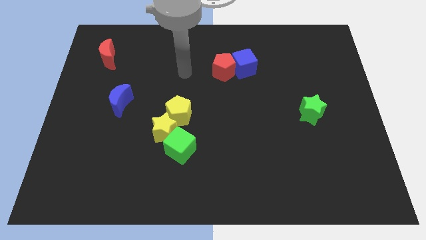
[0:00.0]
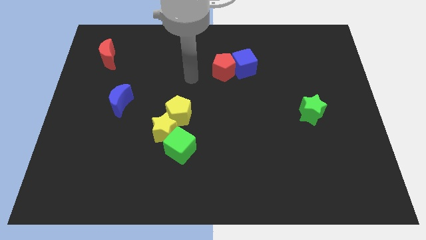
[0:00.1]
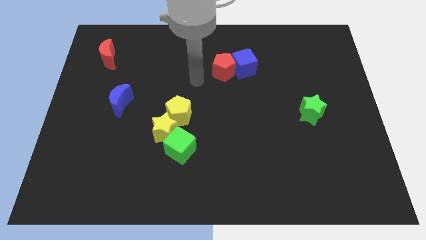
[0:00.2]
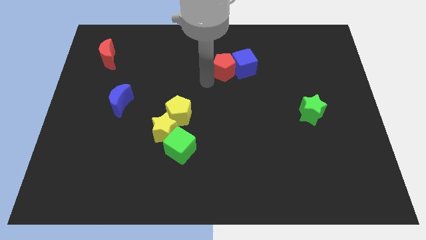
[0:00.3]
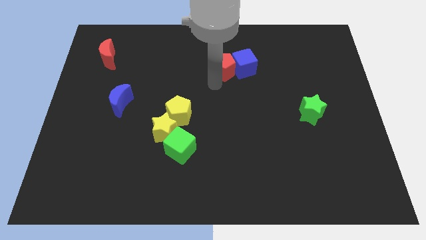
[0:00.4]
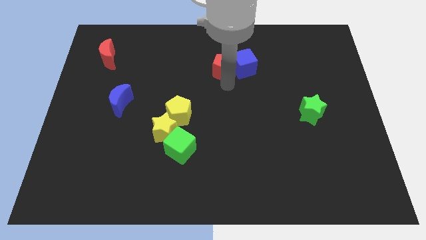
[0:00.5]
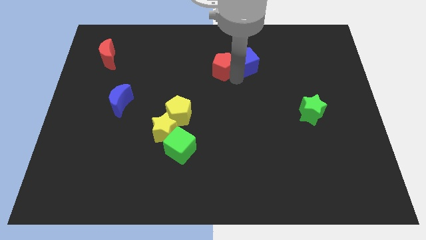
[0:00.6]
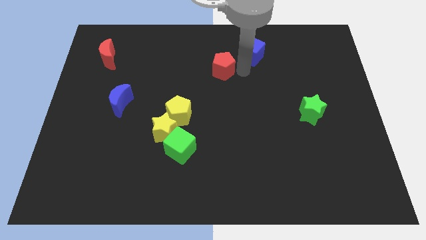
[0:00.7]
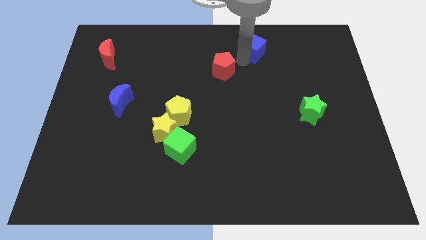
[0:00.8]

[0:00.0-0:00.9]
pull the red pentagon apart from the blue cube

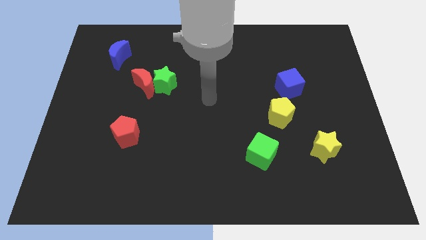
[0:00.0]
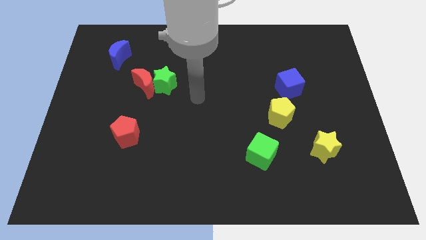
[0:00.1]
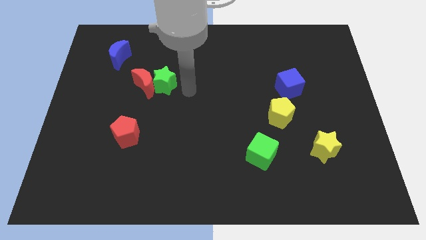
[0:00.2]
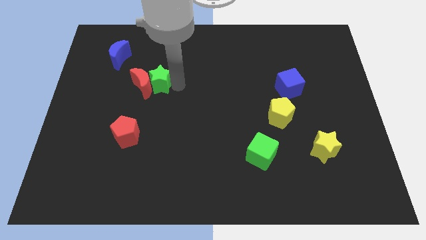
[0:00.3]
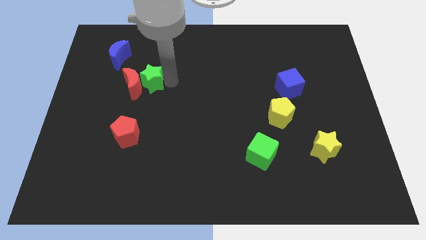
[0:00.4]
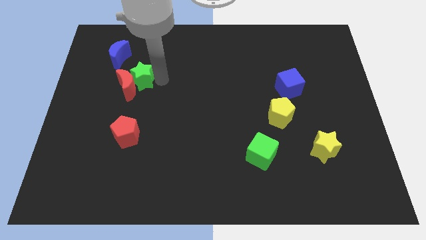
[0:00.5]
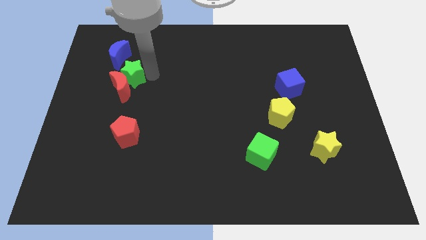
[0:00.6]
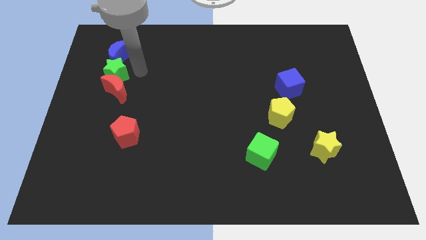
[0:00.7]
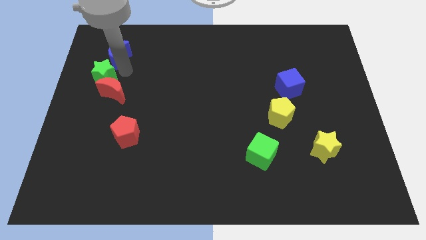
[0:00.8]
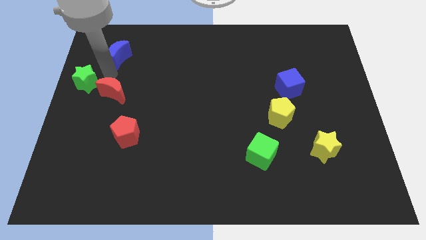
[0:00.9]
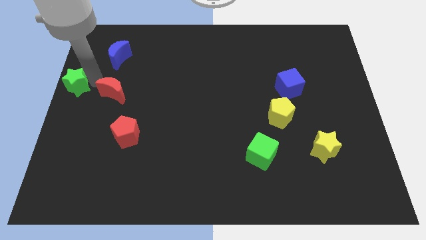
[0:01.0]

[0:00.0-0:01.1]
separate the red moon from the green star

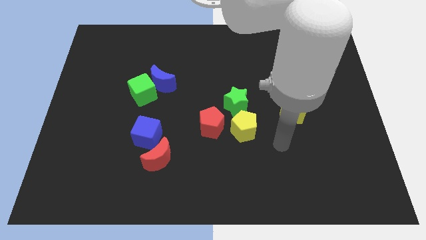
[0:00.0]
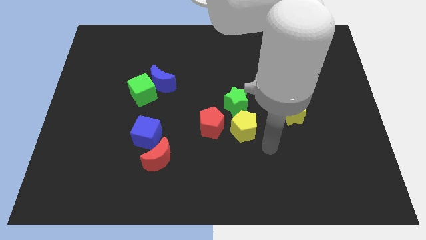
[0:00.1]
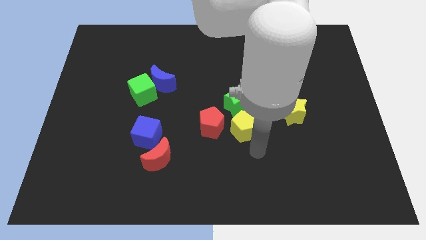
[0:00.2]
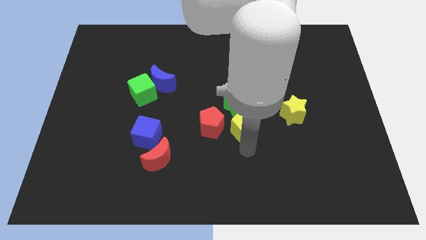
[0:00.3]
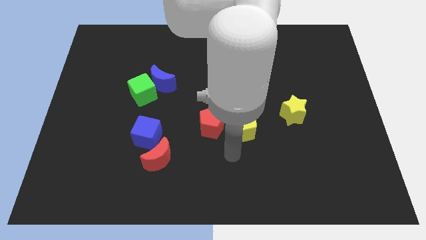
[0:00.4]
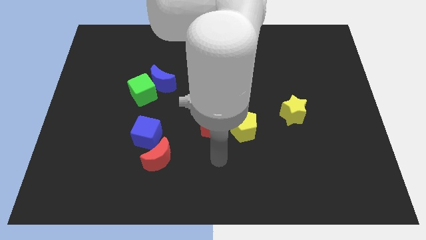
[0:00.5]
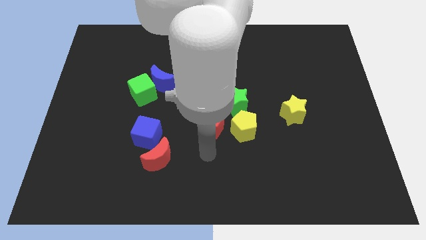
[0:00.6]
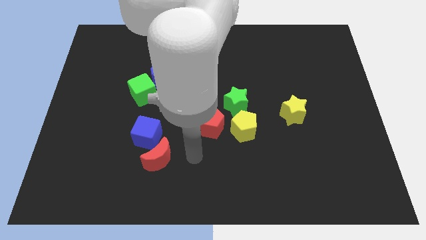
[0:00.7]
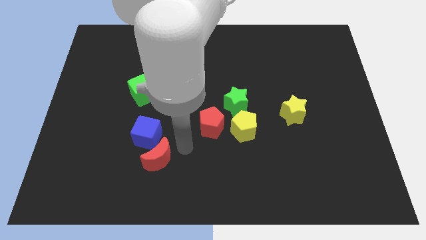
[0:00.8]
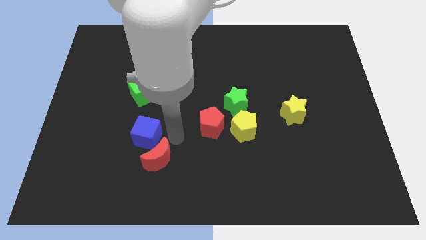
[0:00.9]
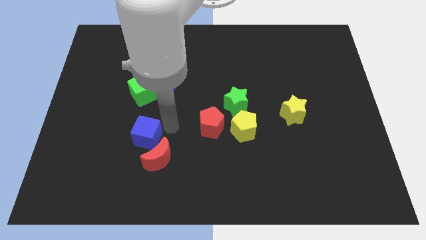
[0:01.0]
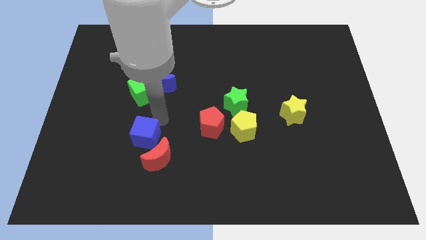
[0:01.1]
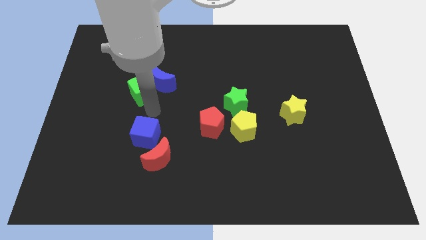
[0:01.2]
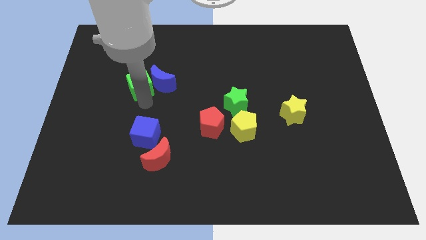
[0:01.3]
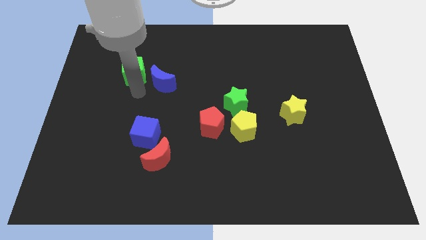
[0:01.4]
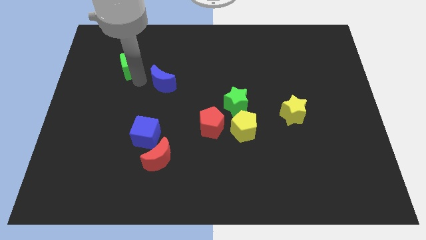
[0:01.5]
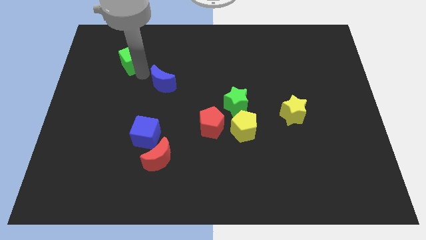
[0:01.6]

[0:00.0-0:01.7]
separate the blue moon from the green cube

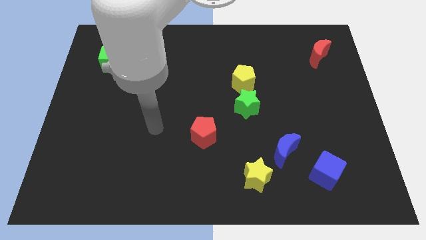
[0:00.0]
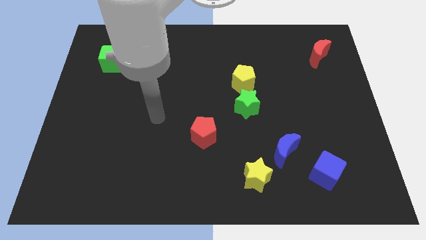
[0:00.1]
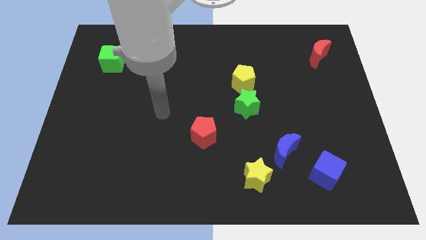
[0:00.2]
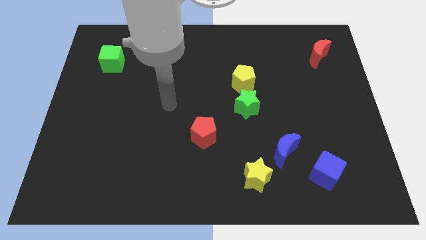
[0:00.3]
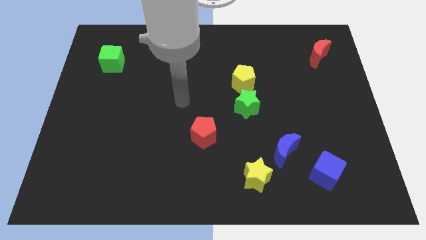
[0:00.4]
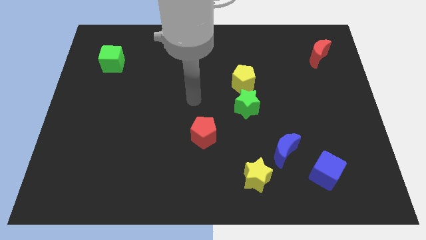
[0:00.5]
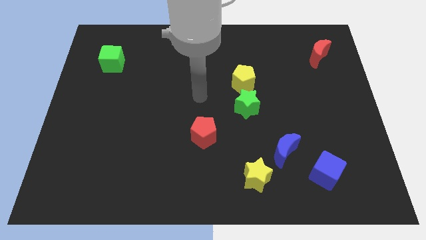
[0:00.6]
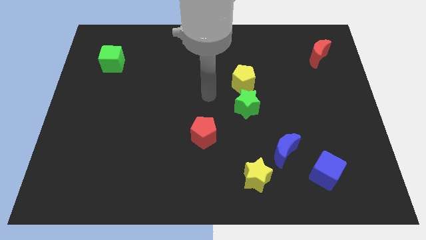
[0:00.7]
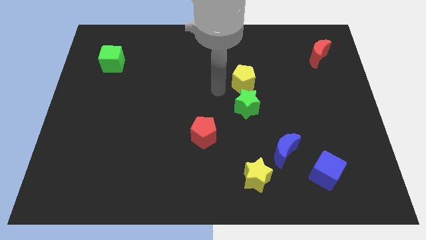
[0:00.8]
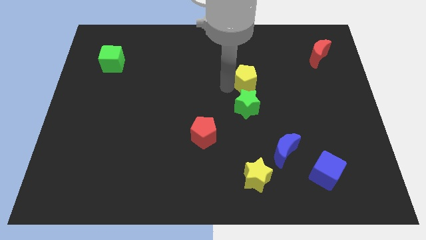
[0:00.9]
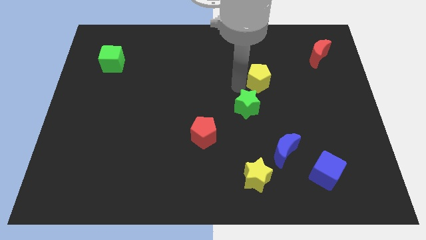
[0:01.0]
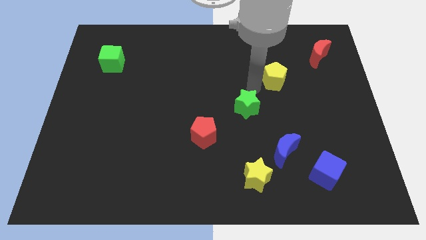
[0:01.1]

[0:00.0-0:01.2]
move the green star away from the yellow pentagon

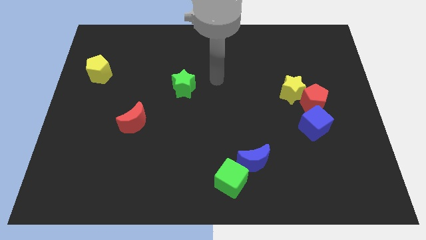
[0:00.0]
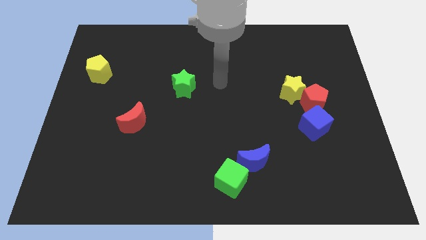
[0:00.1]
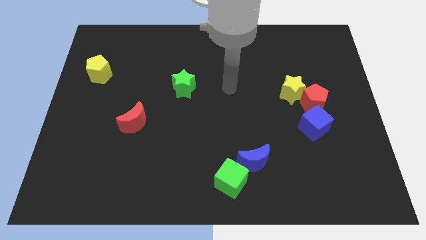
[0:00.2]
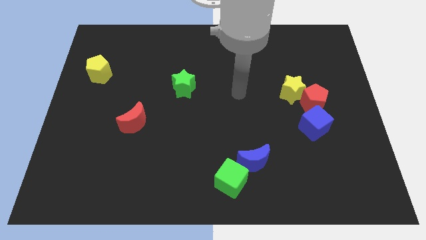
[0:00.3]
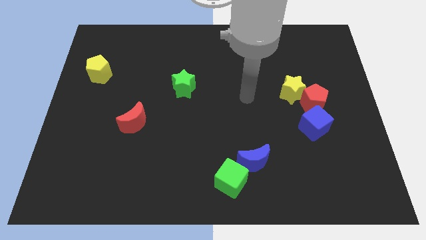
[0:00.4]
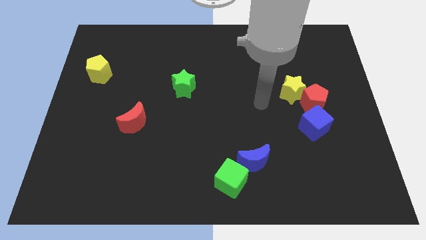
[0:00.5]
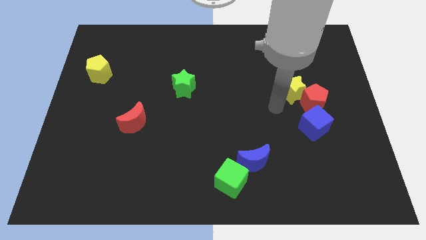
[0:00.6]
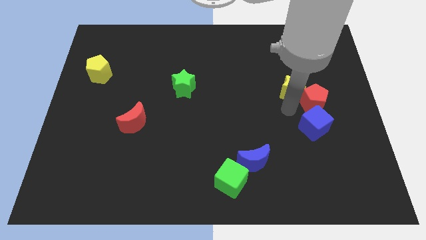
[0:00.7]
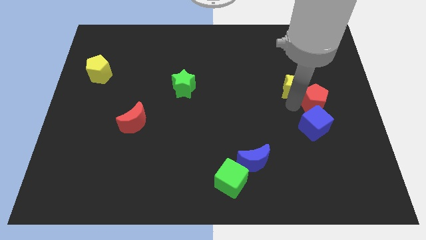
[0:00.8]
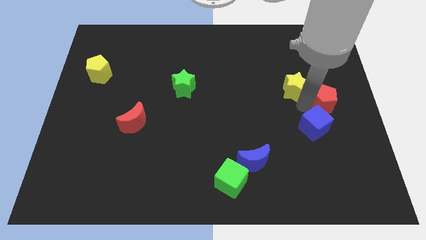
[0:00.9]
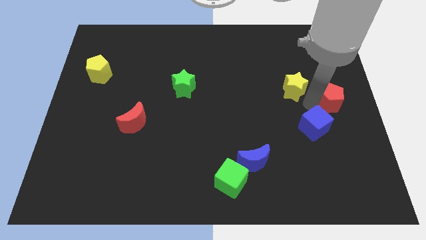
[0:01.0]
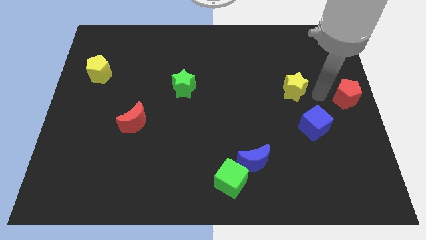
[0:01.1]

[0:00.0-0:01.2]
move the yellow star away from the red pentagon

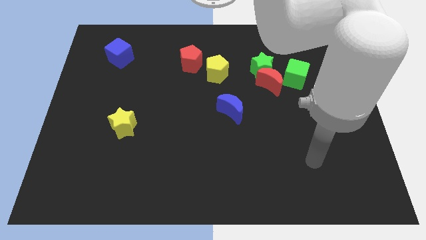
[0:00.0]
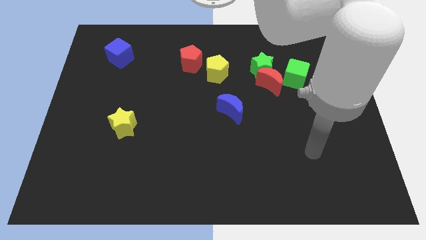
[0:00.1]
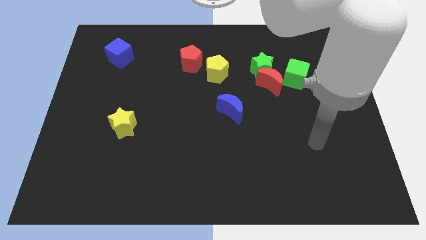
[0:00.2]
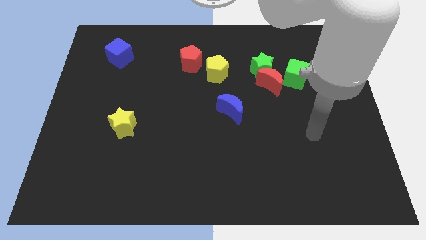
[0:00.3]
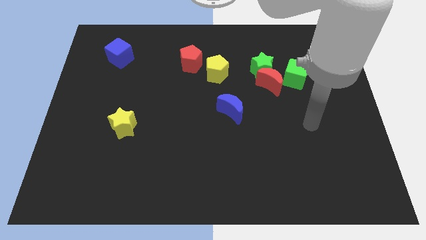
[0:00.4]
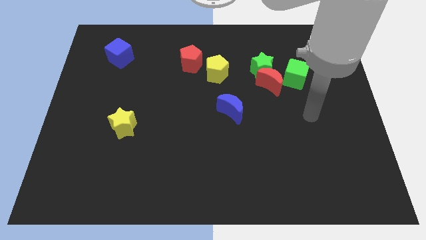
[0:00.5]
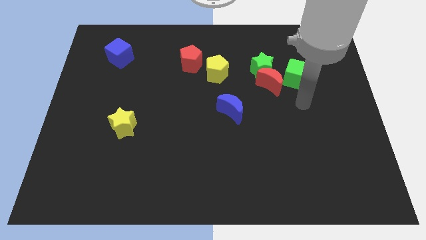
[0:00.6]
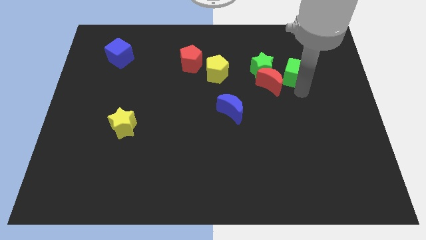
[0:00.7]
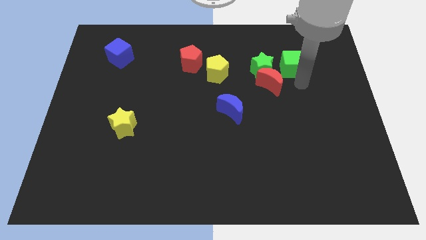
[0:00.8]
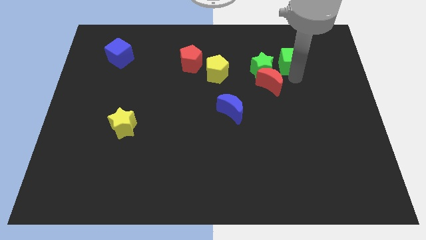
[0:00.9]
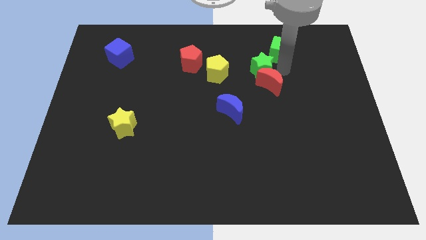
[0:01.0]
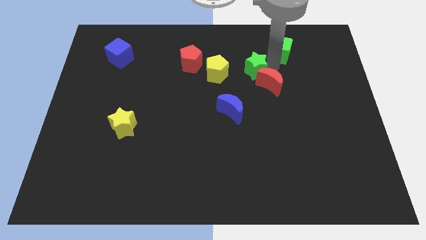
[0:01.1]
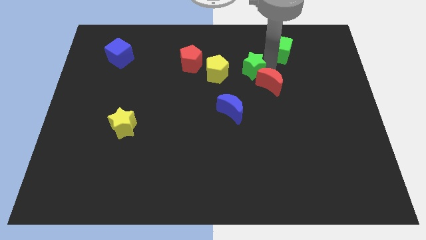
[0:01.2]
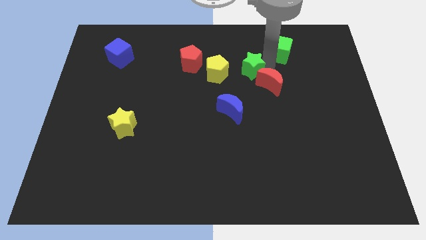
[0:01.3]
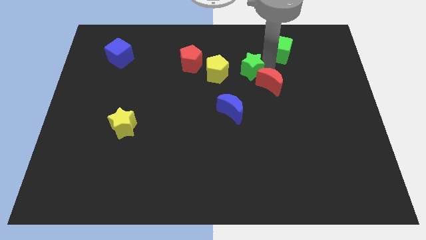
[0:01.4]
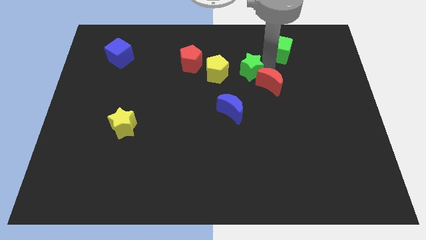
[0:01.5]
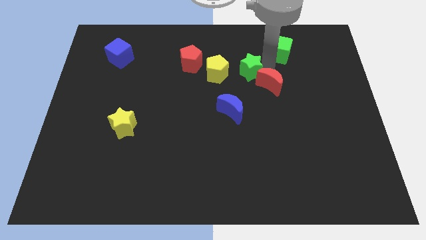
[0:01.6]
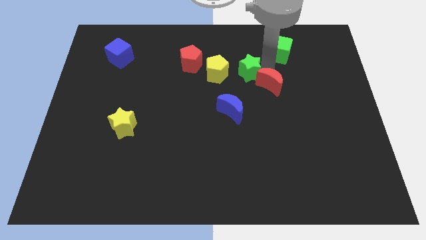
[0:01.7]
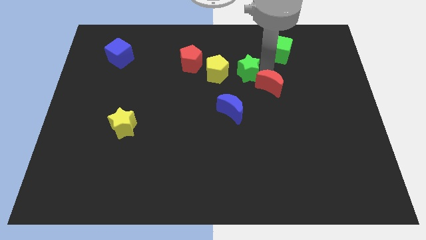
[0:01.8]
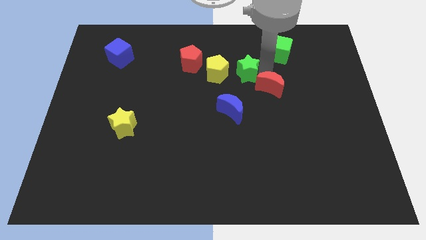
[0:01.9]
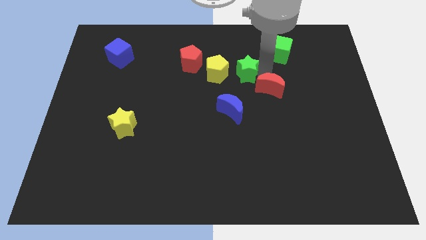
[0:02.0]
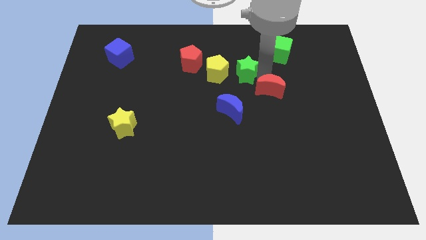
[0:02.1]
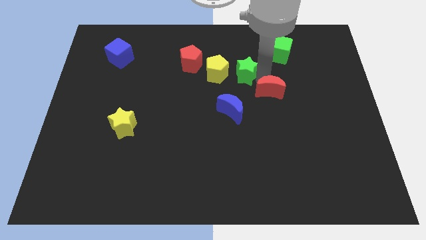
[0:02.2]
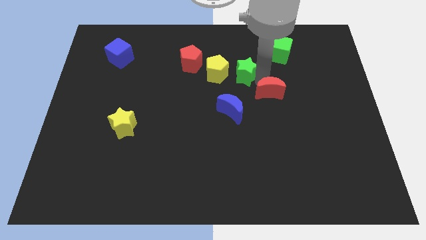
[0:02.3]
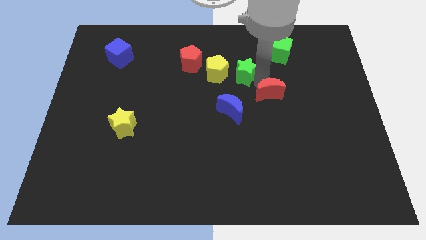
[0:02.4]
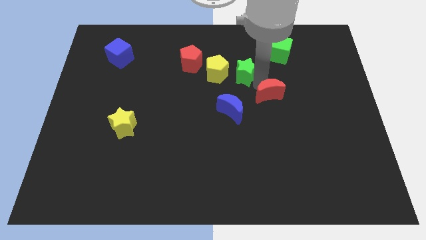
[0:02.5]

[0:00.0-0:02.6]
separate the red moon from the green star and green cube

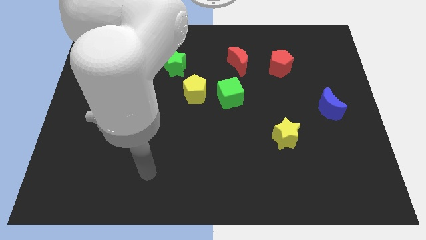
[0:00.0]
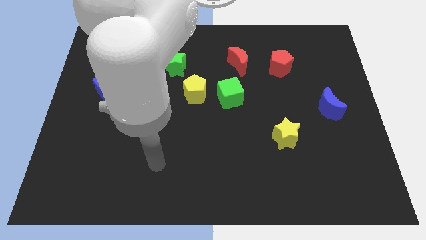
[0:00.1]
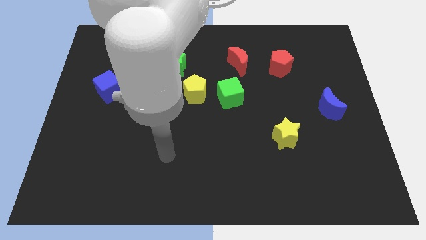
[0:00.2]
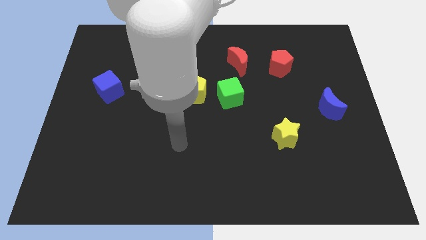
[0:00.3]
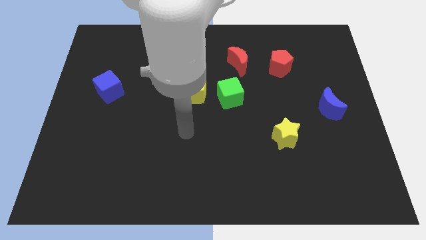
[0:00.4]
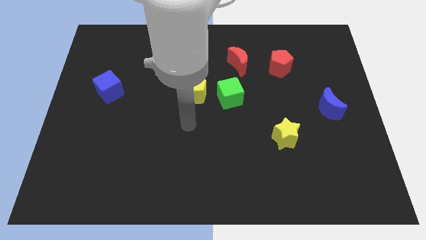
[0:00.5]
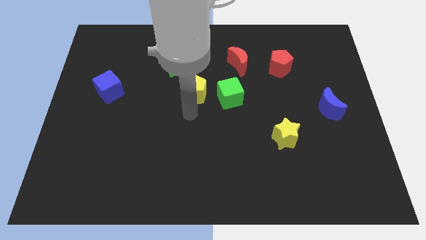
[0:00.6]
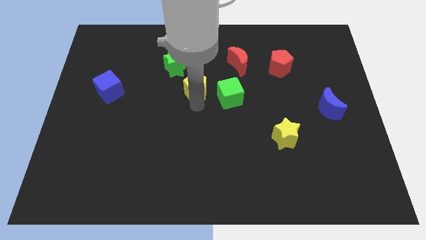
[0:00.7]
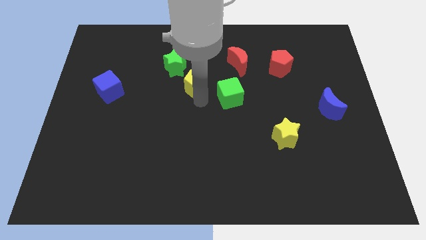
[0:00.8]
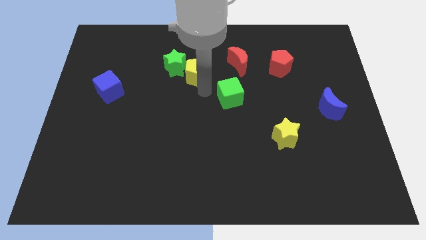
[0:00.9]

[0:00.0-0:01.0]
move the green cube away from the yellow pentagon
